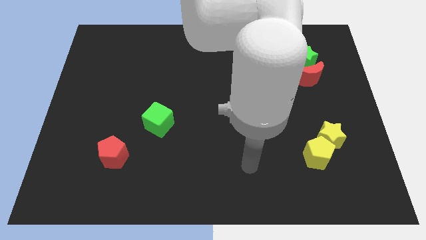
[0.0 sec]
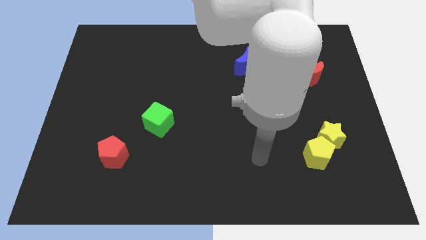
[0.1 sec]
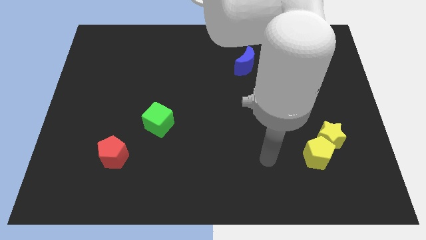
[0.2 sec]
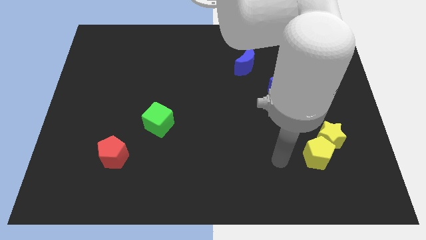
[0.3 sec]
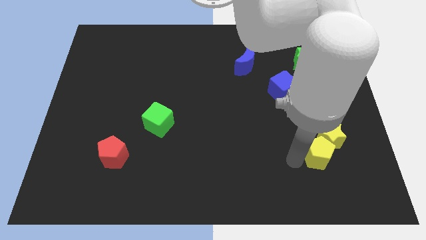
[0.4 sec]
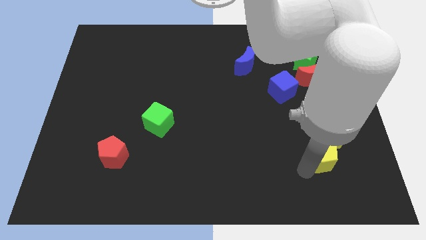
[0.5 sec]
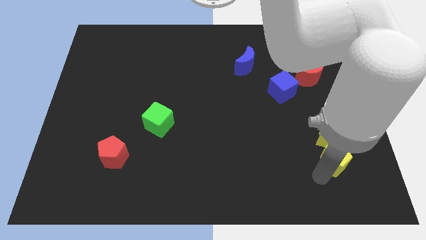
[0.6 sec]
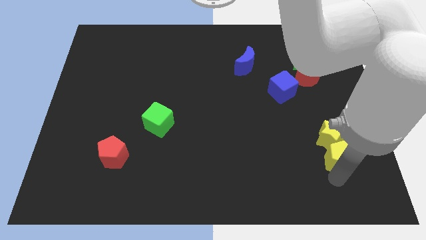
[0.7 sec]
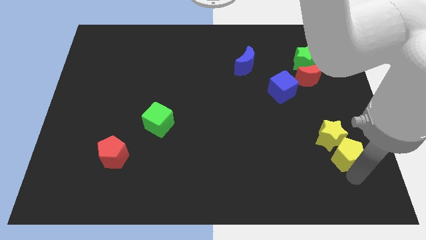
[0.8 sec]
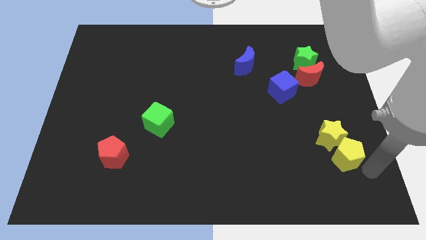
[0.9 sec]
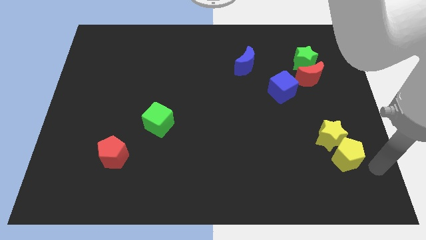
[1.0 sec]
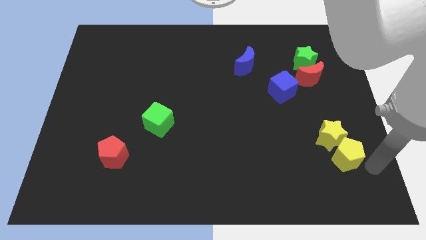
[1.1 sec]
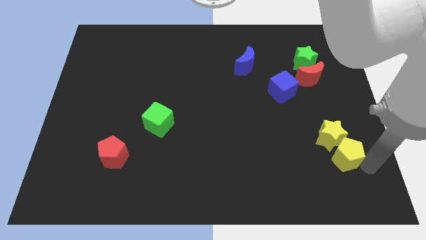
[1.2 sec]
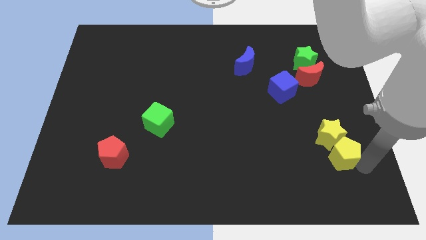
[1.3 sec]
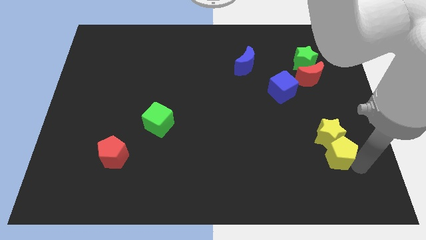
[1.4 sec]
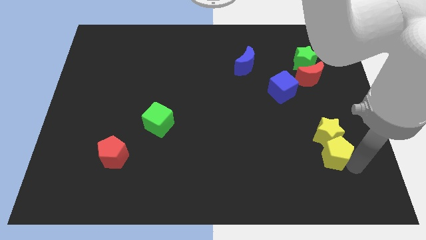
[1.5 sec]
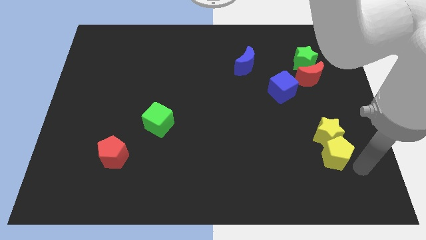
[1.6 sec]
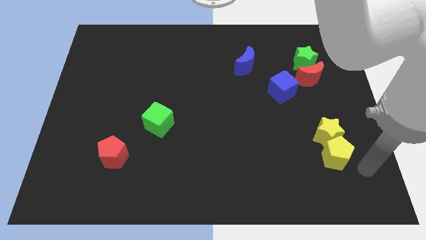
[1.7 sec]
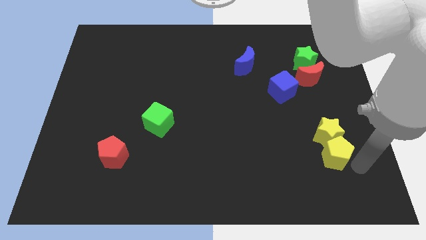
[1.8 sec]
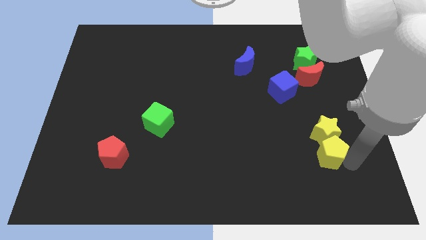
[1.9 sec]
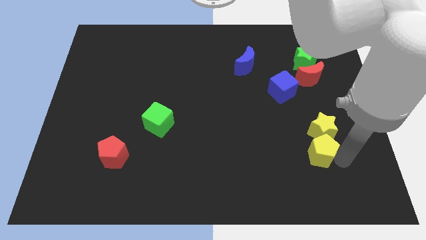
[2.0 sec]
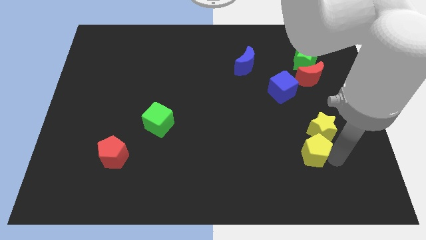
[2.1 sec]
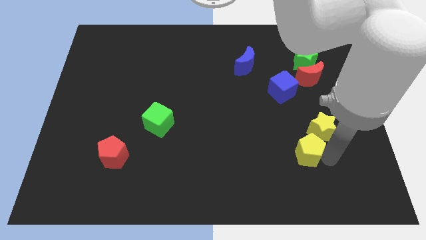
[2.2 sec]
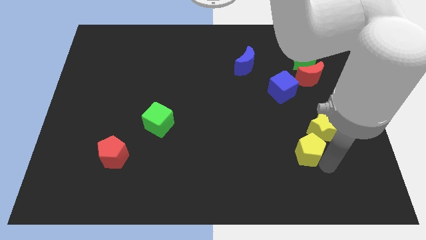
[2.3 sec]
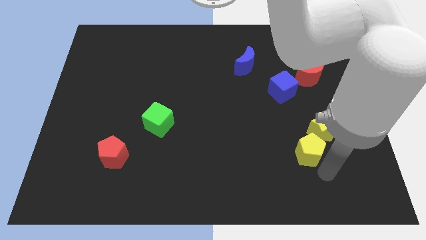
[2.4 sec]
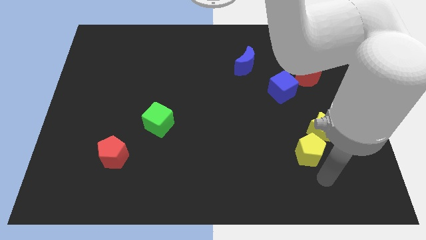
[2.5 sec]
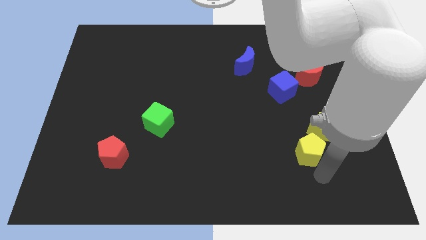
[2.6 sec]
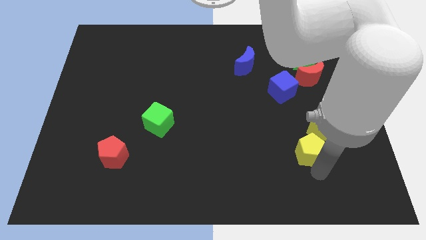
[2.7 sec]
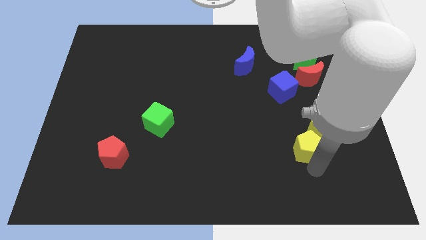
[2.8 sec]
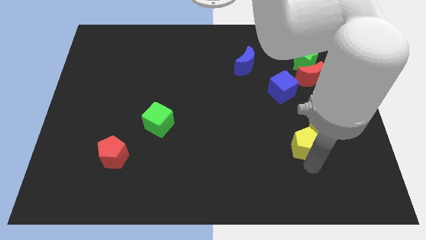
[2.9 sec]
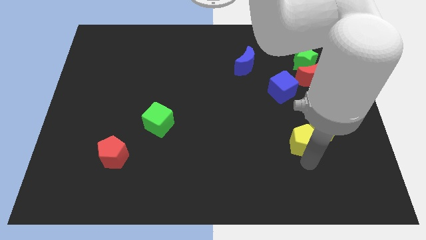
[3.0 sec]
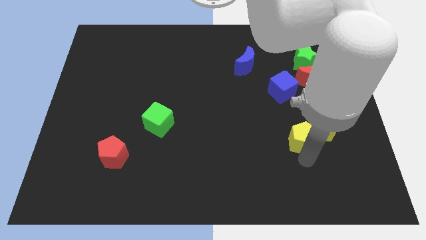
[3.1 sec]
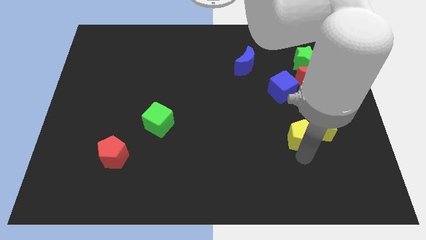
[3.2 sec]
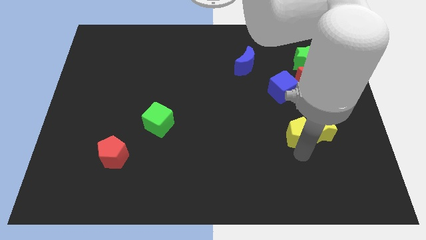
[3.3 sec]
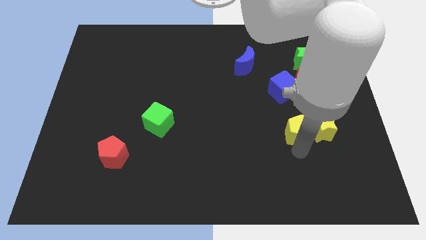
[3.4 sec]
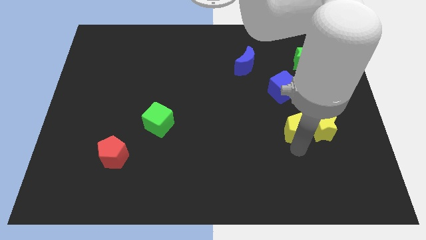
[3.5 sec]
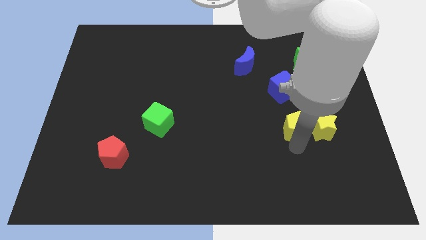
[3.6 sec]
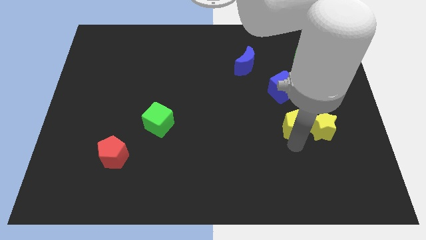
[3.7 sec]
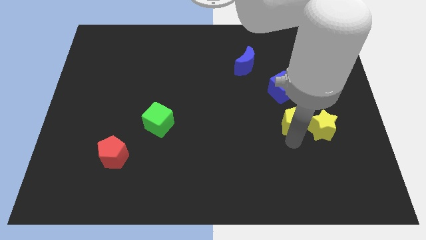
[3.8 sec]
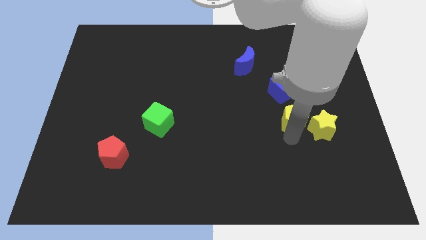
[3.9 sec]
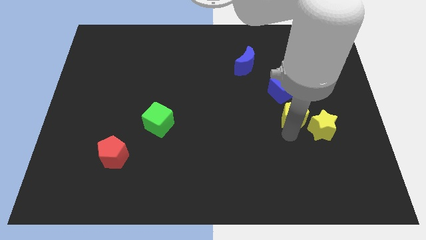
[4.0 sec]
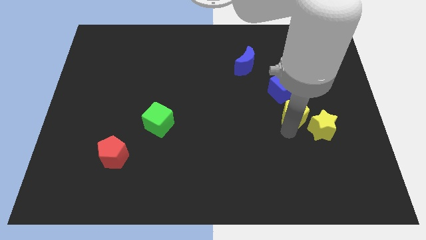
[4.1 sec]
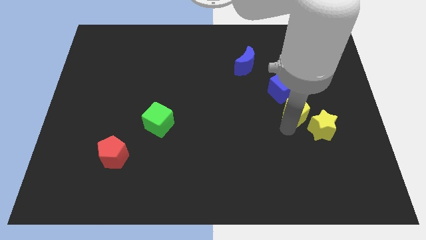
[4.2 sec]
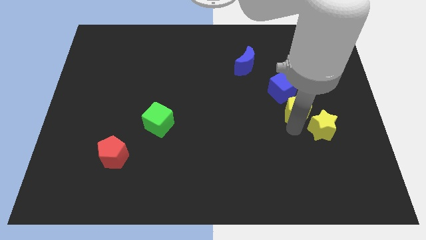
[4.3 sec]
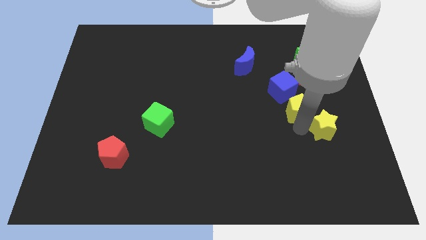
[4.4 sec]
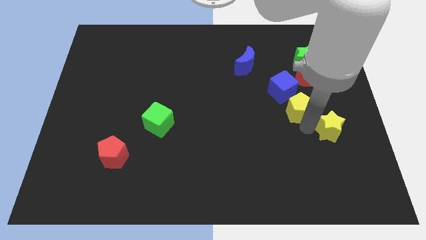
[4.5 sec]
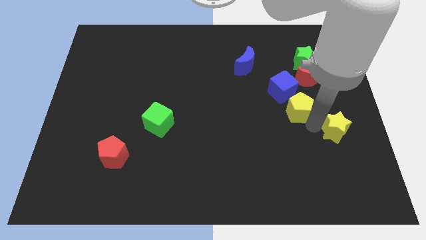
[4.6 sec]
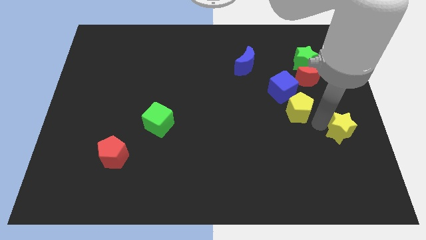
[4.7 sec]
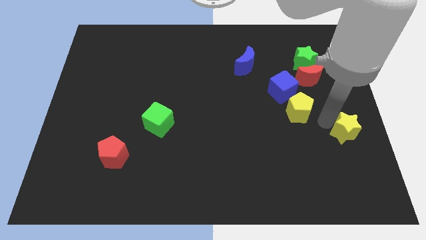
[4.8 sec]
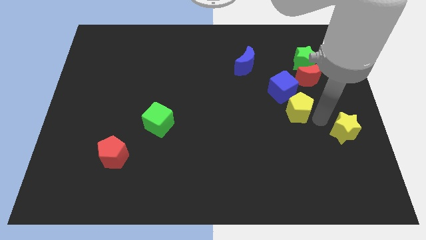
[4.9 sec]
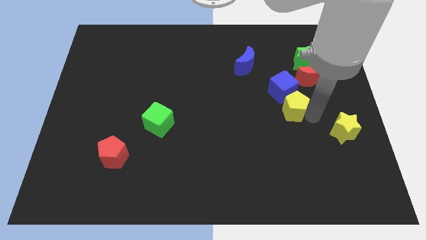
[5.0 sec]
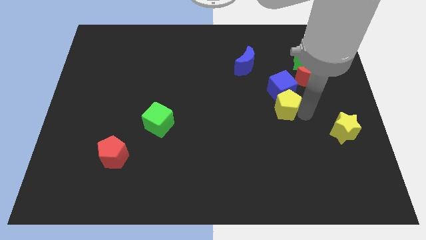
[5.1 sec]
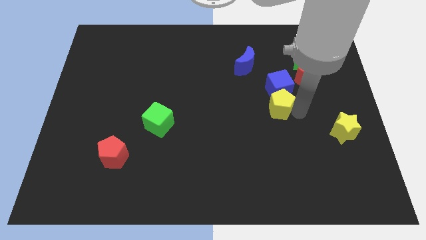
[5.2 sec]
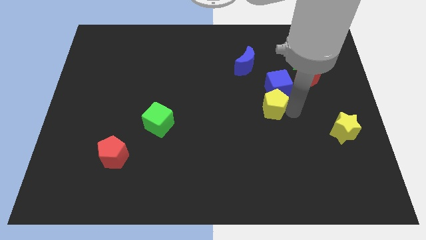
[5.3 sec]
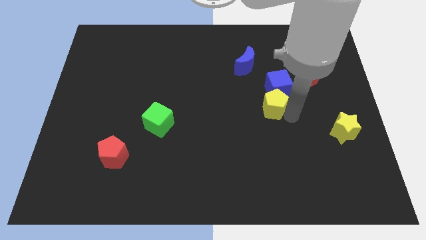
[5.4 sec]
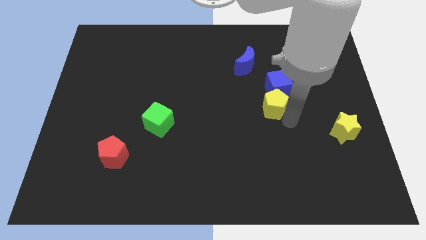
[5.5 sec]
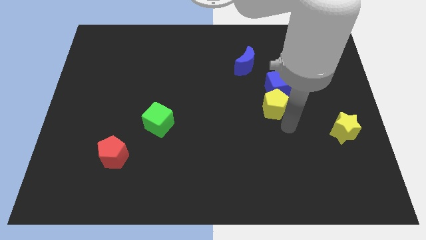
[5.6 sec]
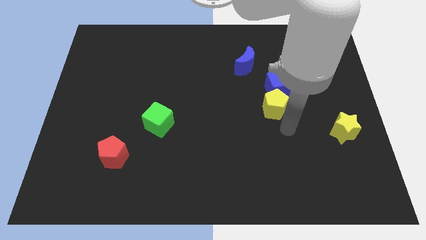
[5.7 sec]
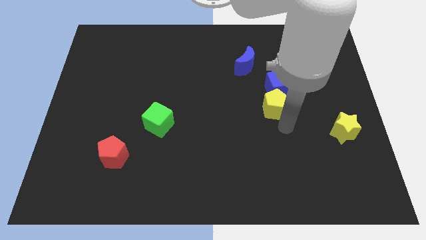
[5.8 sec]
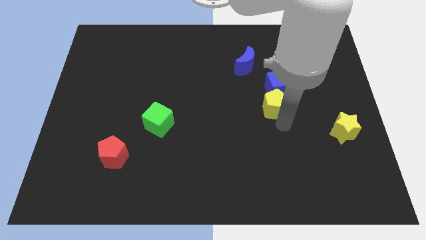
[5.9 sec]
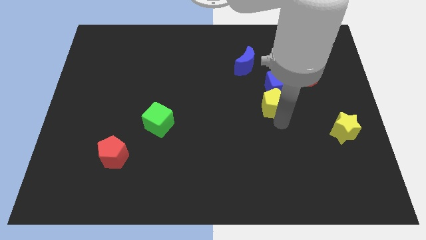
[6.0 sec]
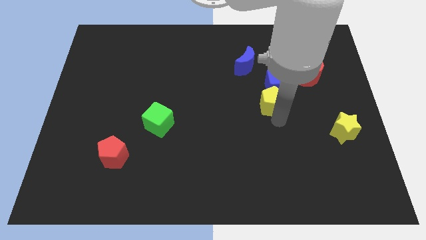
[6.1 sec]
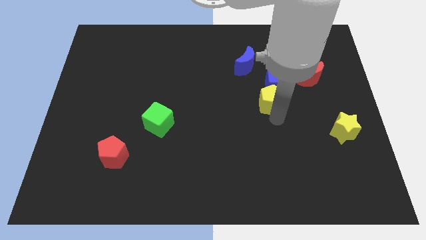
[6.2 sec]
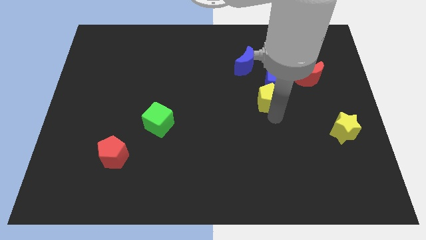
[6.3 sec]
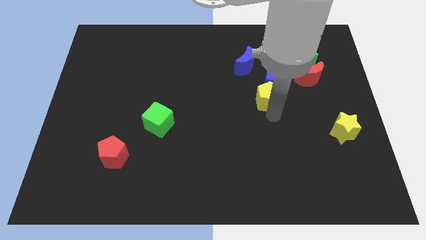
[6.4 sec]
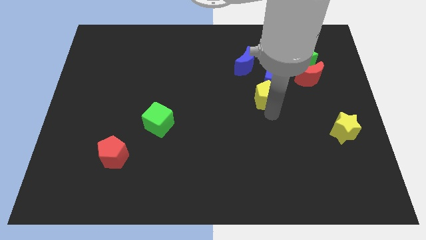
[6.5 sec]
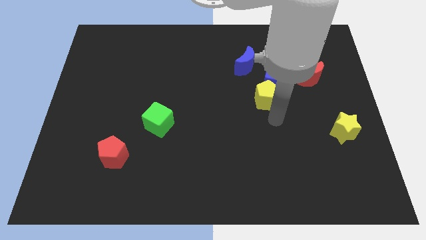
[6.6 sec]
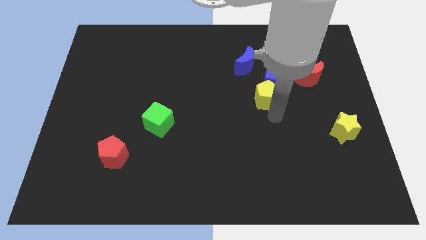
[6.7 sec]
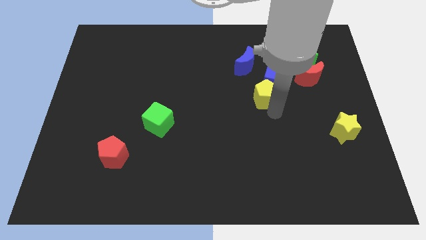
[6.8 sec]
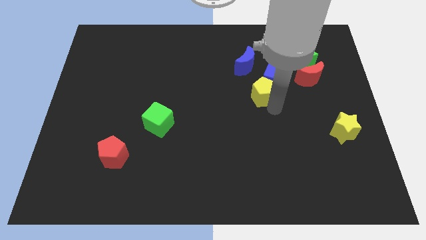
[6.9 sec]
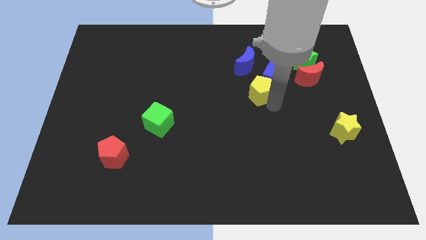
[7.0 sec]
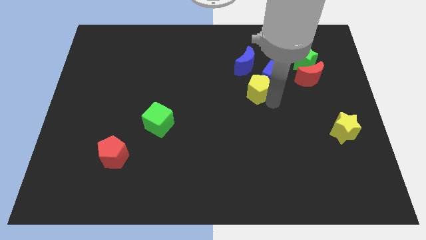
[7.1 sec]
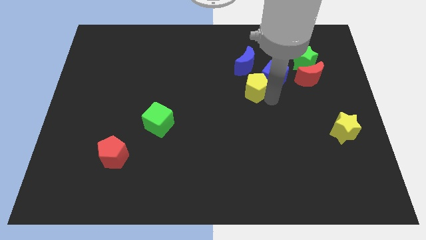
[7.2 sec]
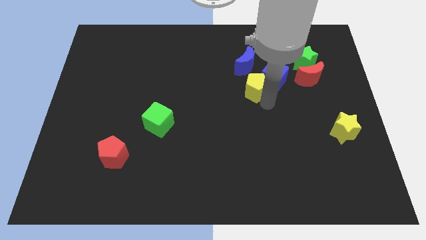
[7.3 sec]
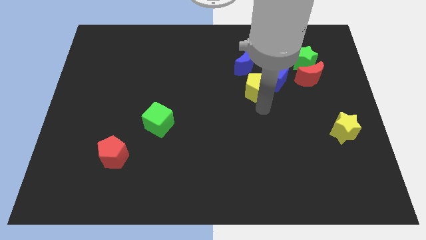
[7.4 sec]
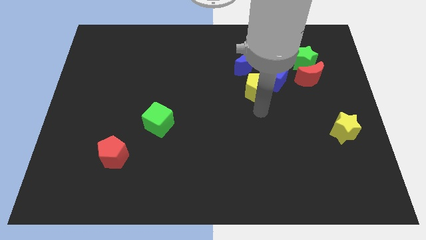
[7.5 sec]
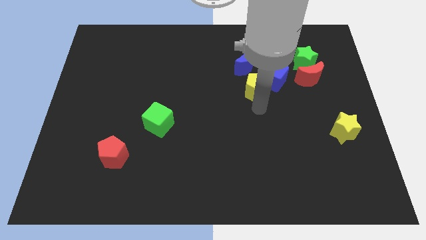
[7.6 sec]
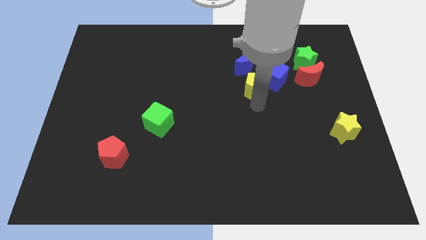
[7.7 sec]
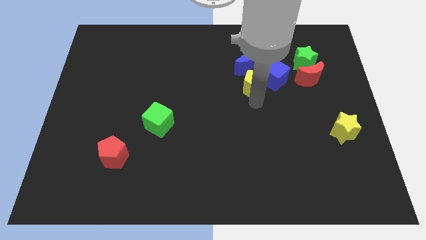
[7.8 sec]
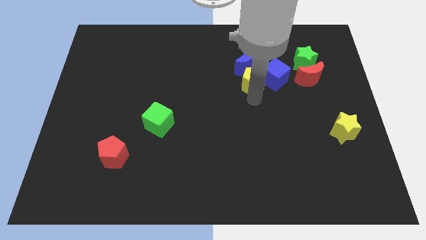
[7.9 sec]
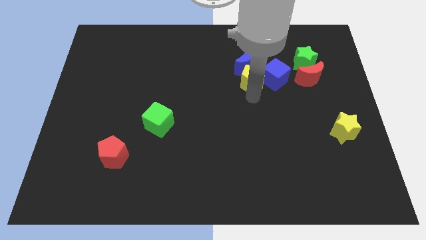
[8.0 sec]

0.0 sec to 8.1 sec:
put the yellow pentagon diagonally up and to the left of the blue cube
